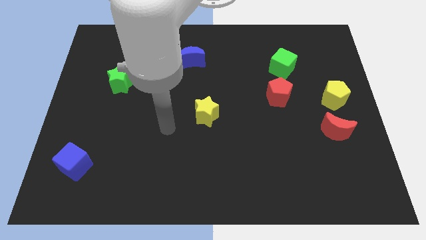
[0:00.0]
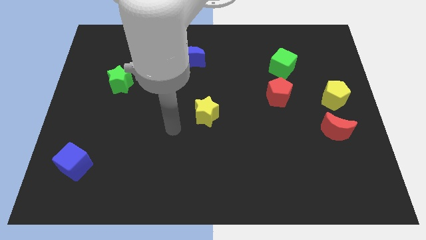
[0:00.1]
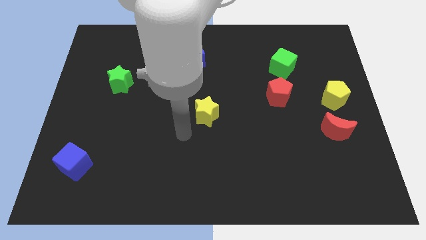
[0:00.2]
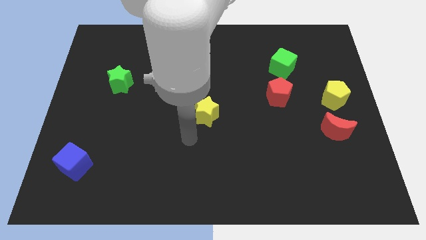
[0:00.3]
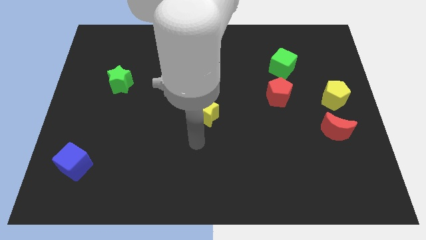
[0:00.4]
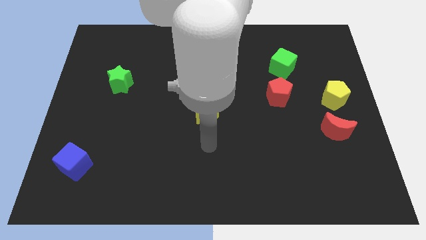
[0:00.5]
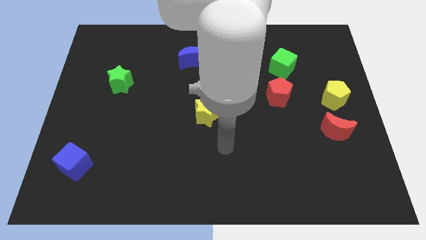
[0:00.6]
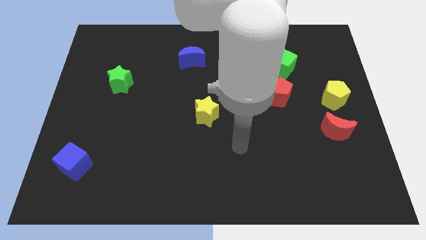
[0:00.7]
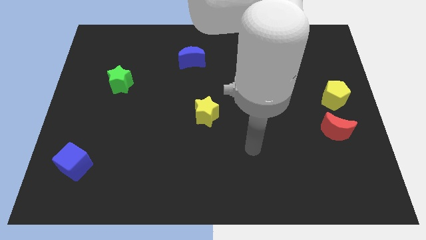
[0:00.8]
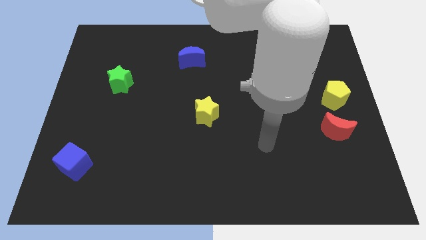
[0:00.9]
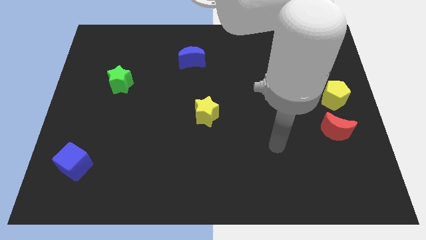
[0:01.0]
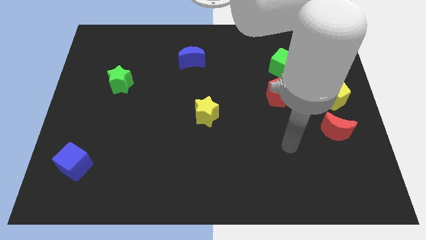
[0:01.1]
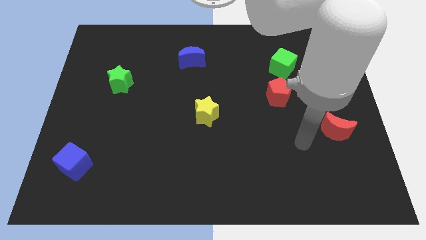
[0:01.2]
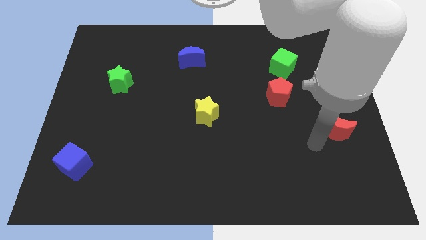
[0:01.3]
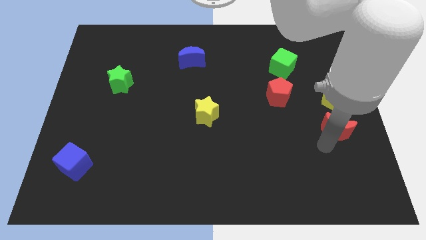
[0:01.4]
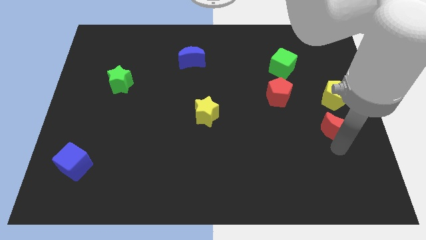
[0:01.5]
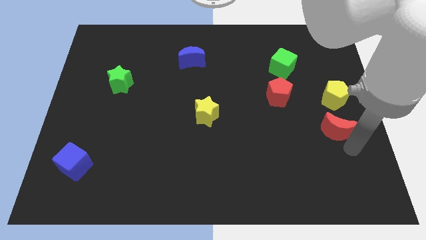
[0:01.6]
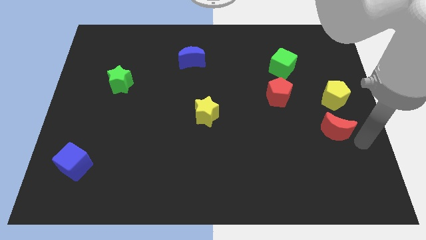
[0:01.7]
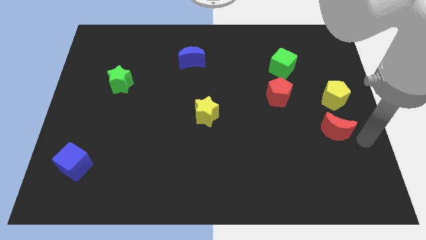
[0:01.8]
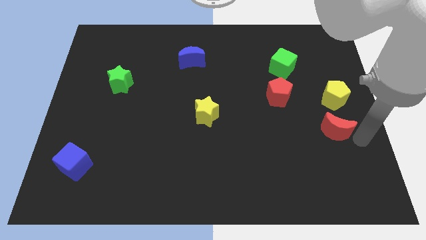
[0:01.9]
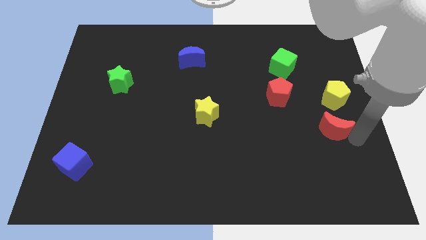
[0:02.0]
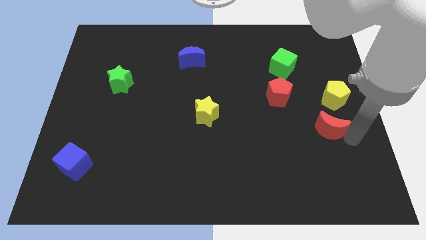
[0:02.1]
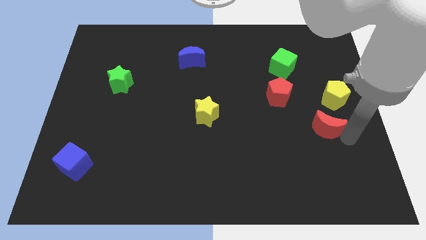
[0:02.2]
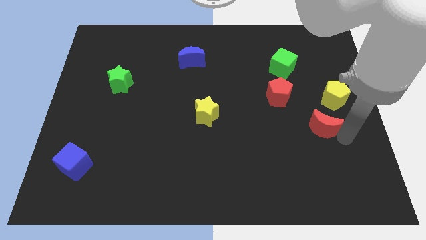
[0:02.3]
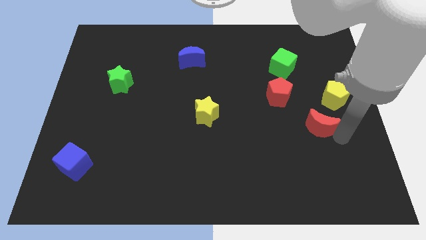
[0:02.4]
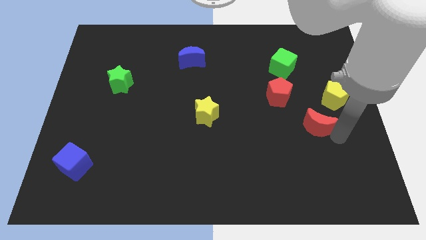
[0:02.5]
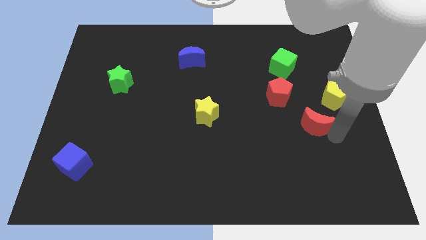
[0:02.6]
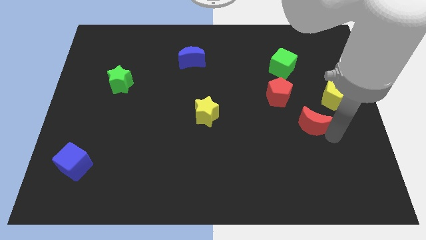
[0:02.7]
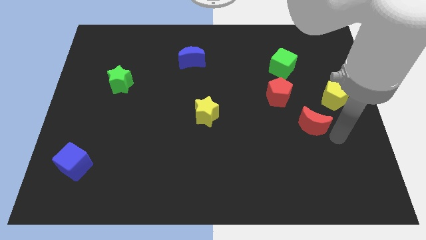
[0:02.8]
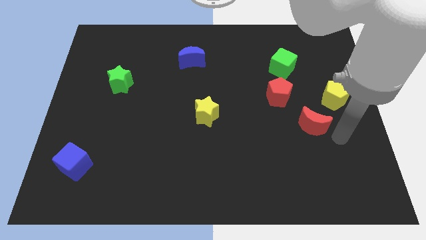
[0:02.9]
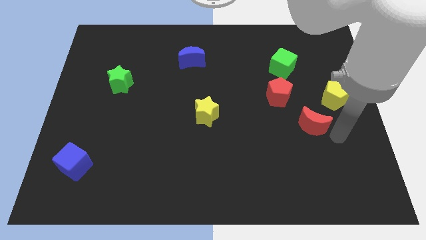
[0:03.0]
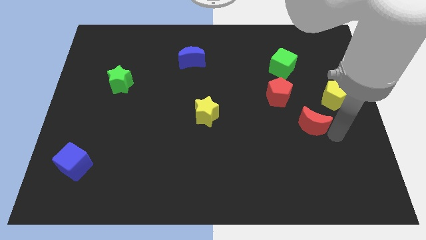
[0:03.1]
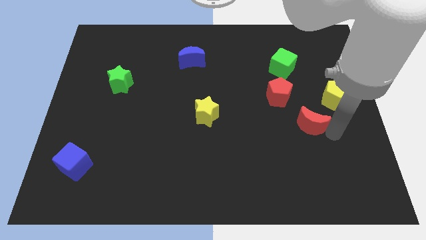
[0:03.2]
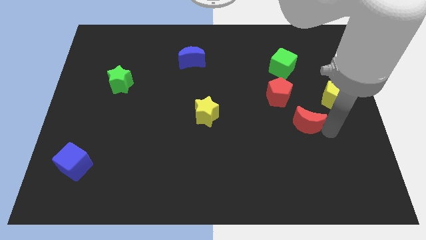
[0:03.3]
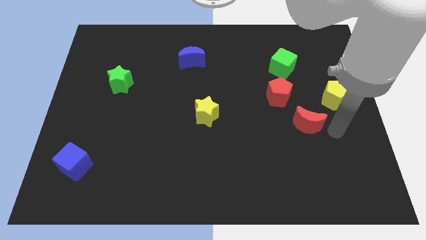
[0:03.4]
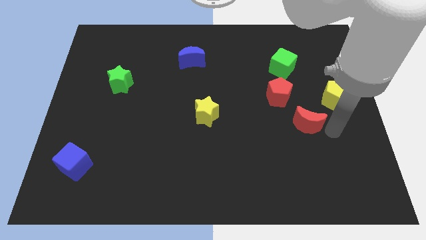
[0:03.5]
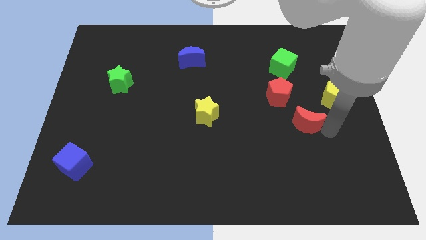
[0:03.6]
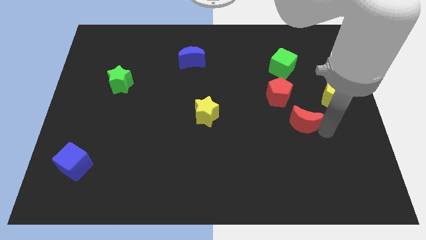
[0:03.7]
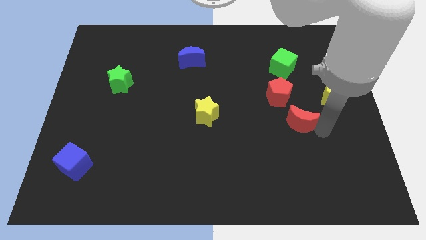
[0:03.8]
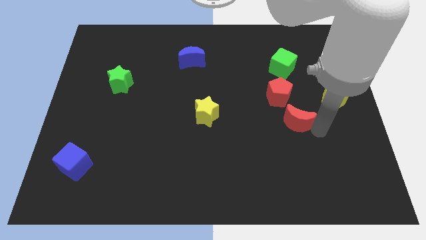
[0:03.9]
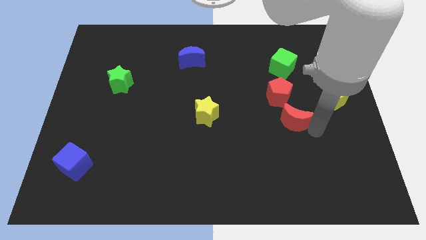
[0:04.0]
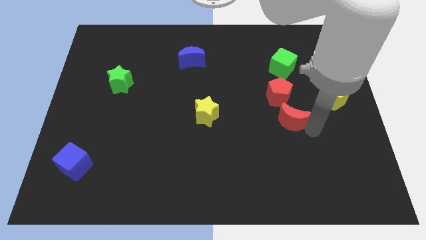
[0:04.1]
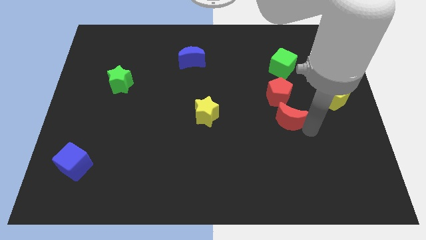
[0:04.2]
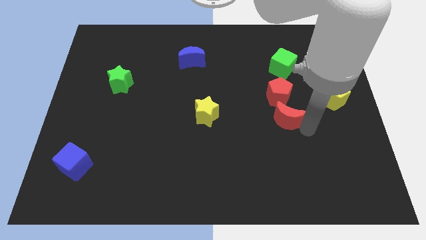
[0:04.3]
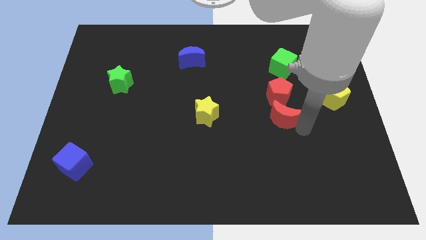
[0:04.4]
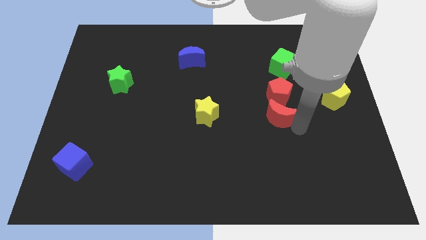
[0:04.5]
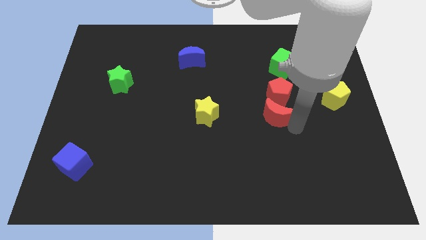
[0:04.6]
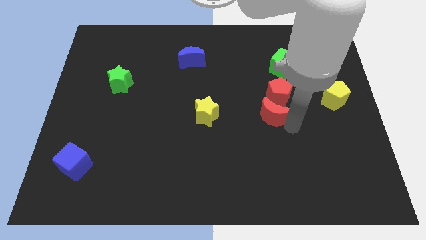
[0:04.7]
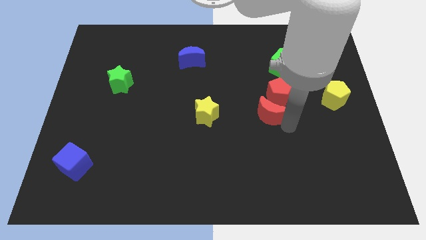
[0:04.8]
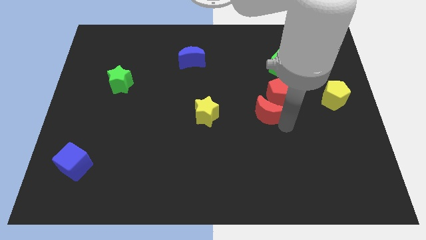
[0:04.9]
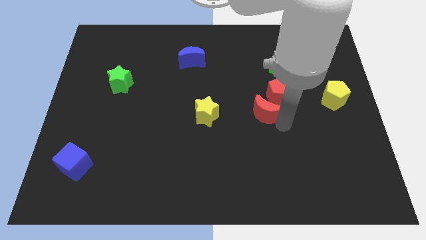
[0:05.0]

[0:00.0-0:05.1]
push the red moon to the middle

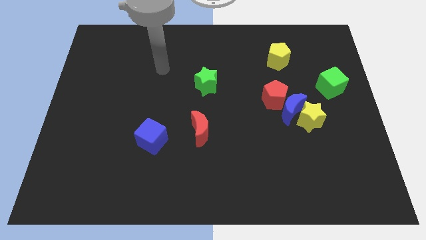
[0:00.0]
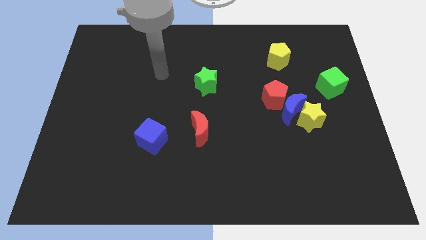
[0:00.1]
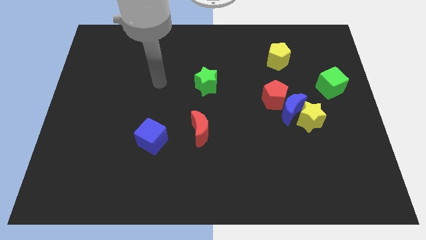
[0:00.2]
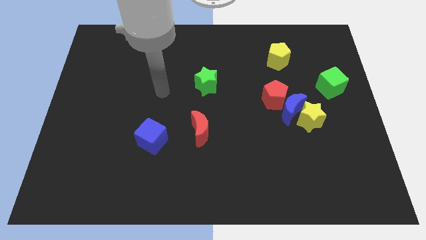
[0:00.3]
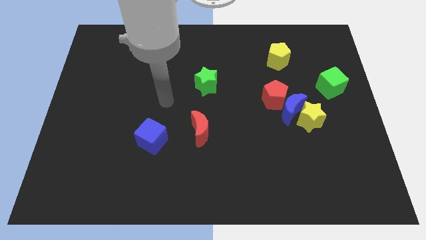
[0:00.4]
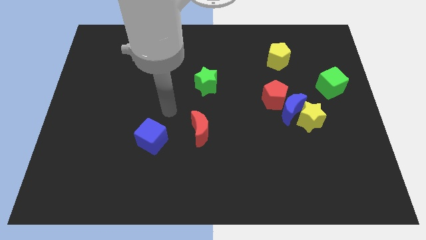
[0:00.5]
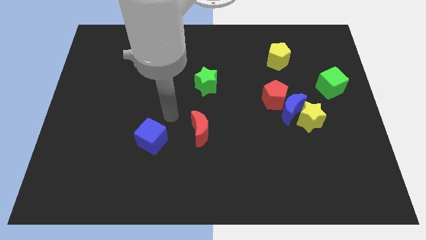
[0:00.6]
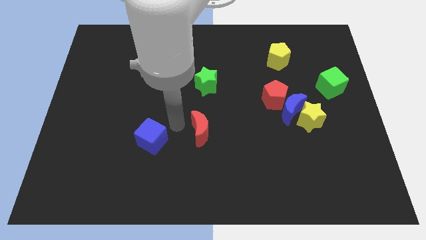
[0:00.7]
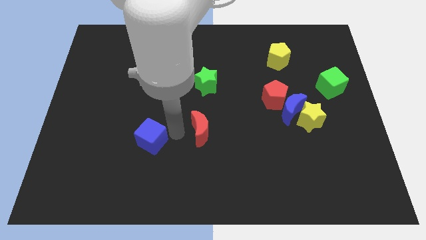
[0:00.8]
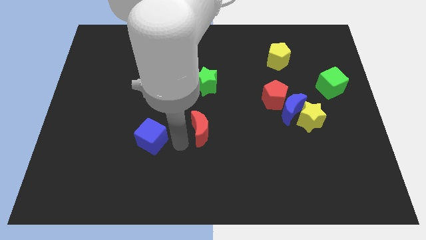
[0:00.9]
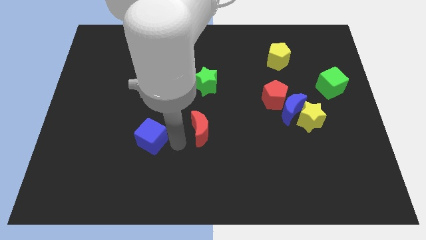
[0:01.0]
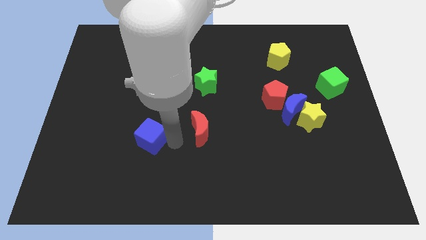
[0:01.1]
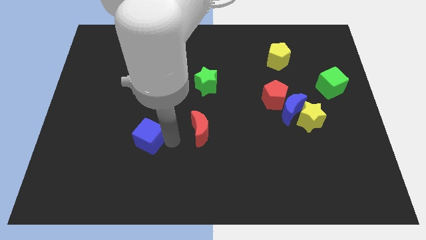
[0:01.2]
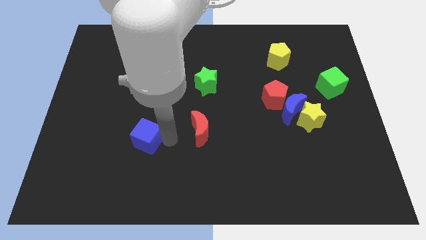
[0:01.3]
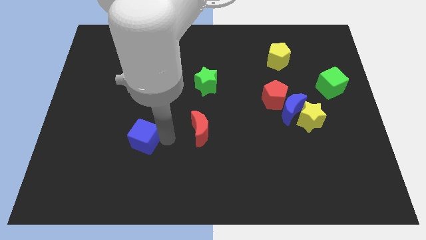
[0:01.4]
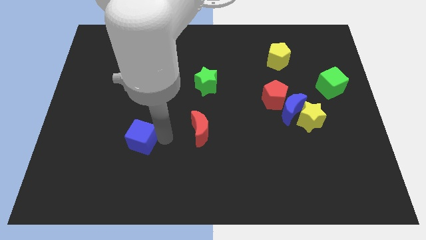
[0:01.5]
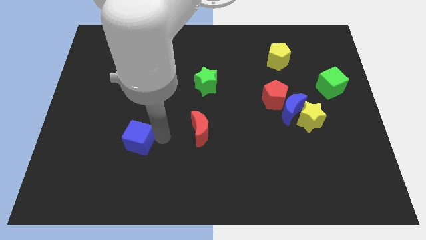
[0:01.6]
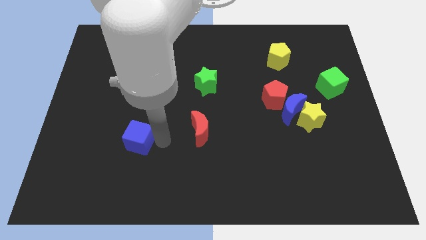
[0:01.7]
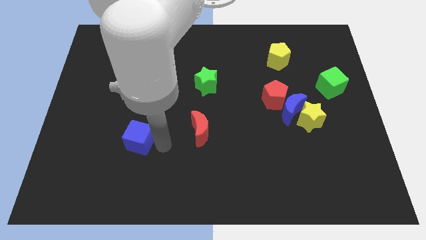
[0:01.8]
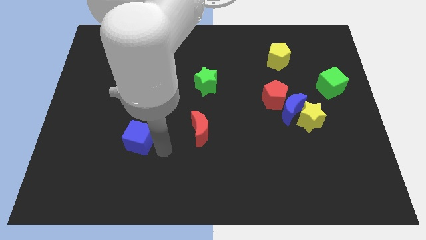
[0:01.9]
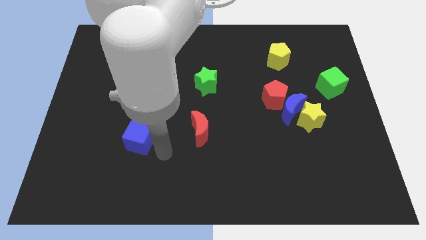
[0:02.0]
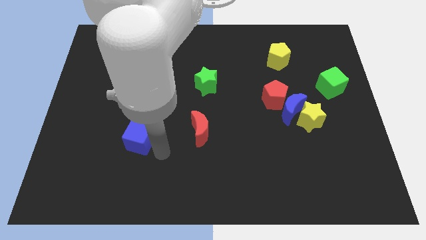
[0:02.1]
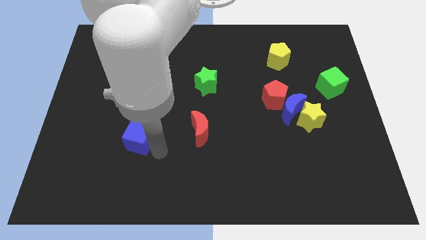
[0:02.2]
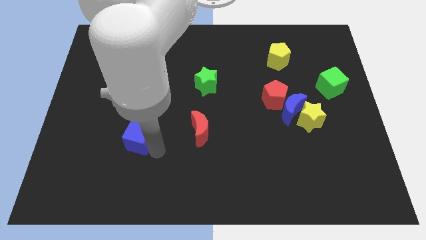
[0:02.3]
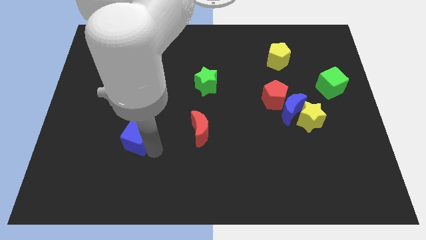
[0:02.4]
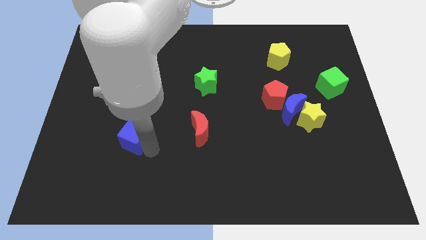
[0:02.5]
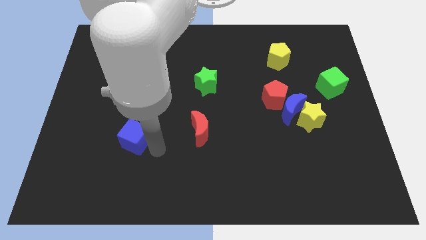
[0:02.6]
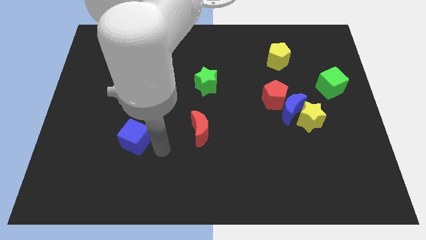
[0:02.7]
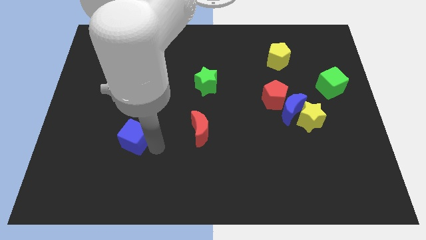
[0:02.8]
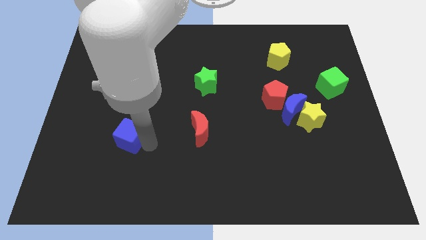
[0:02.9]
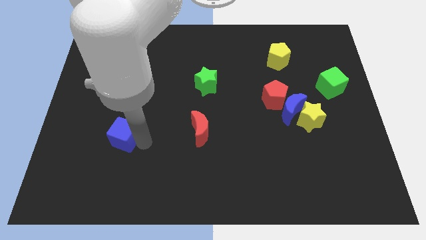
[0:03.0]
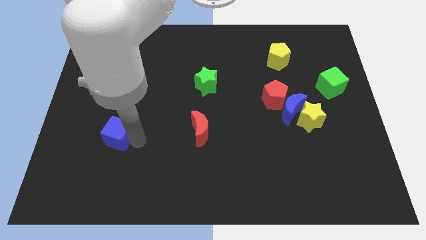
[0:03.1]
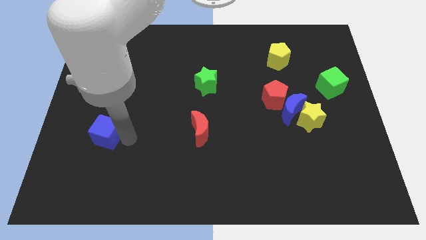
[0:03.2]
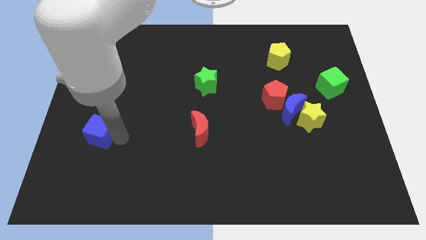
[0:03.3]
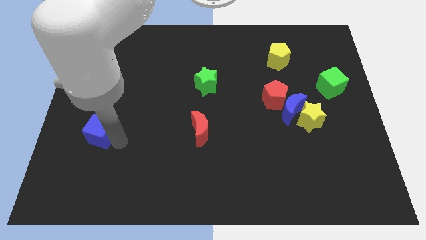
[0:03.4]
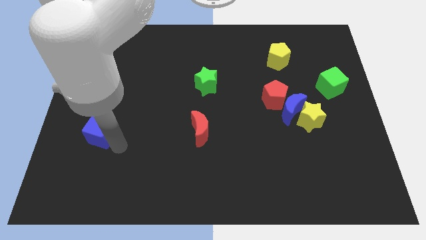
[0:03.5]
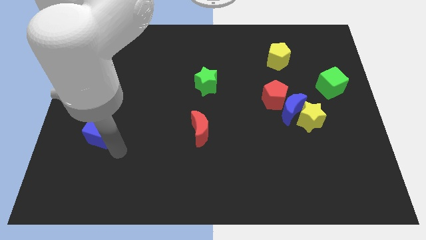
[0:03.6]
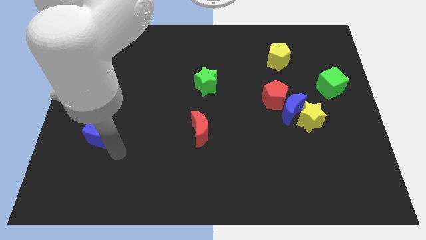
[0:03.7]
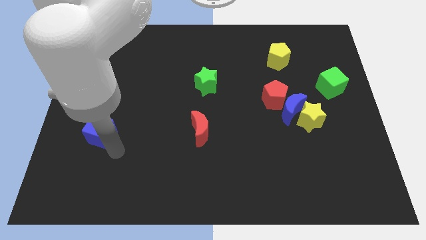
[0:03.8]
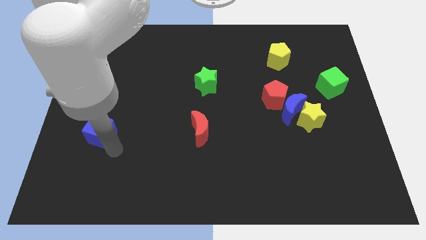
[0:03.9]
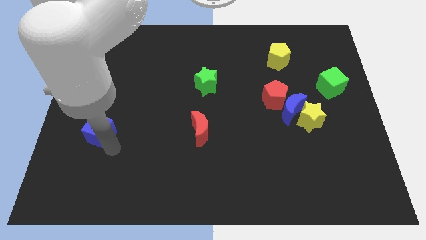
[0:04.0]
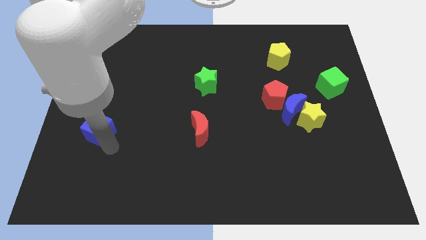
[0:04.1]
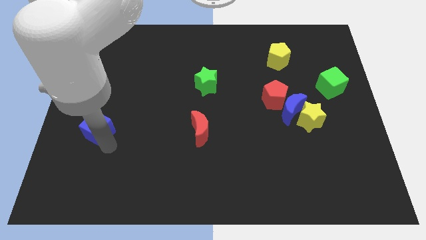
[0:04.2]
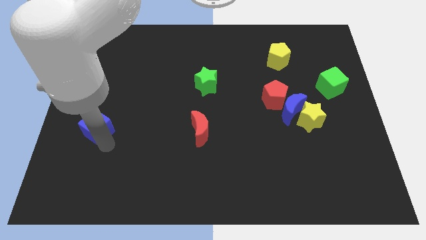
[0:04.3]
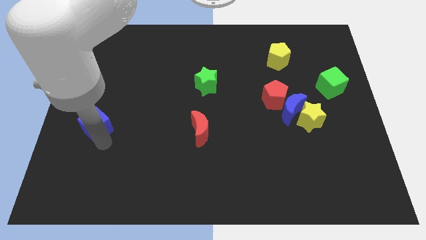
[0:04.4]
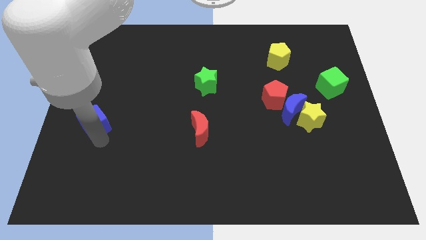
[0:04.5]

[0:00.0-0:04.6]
put the blue cube to the center left
